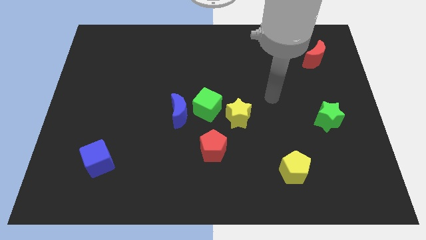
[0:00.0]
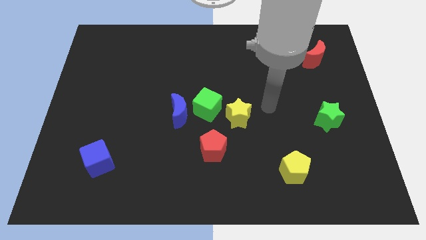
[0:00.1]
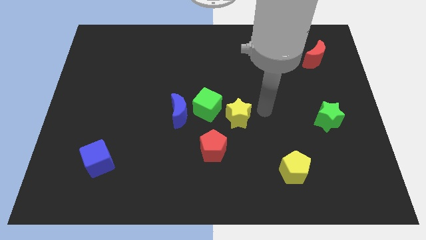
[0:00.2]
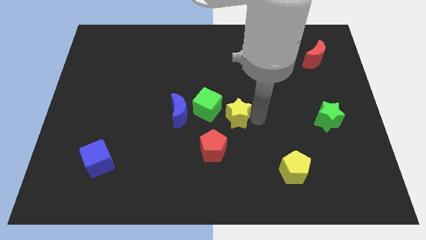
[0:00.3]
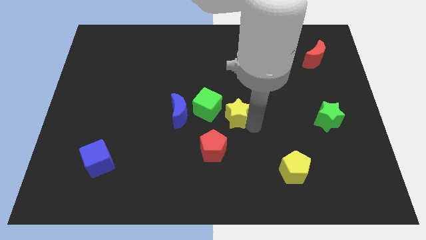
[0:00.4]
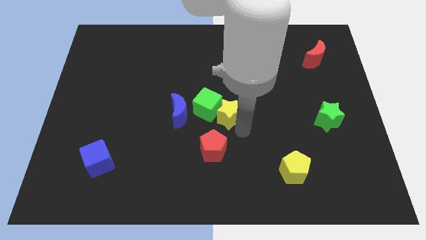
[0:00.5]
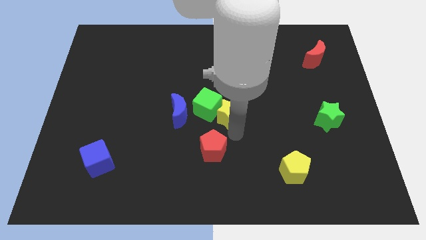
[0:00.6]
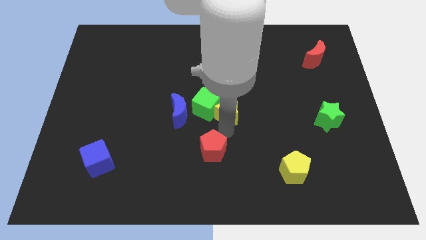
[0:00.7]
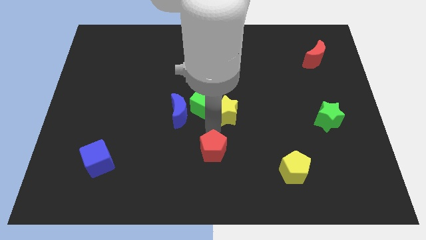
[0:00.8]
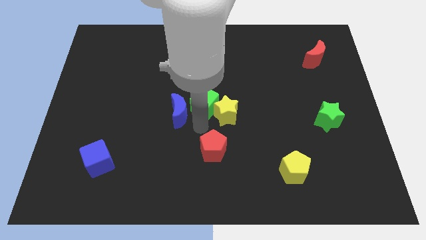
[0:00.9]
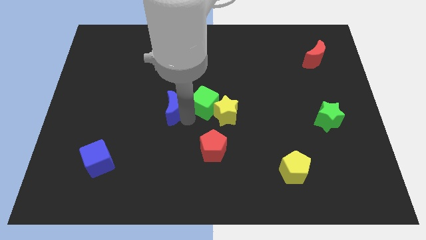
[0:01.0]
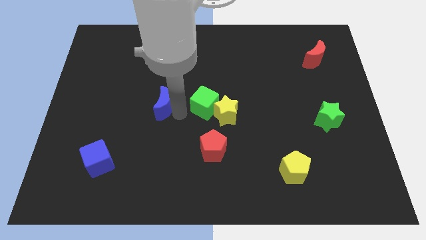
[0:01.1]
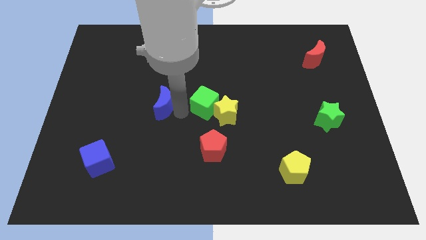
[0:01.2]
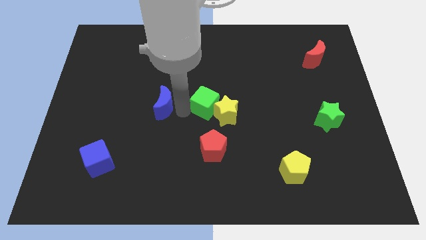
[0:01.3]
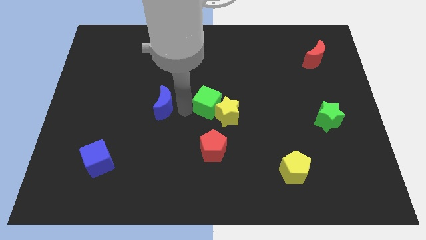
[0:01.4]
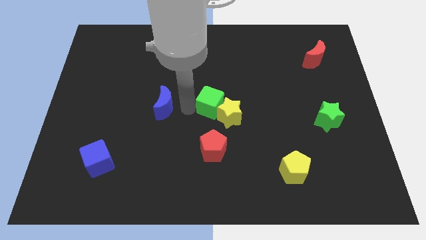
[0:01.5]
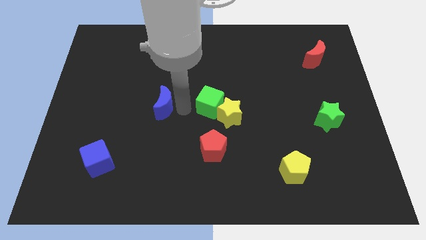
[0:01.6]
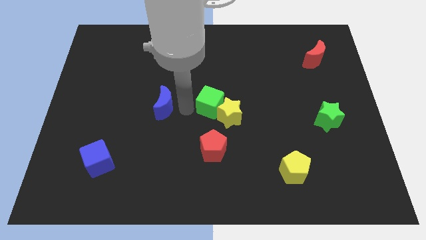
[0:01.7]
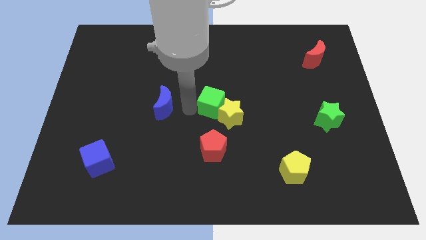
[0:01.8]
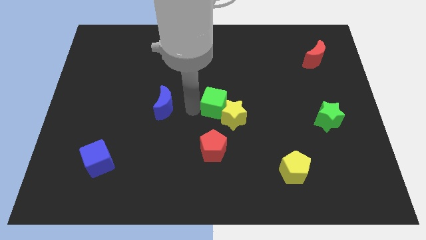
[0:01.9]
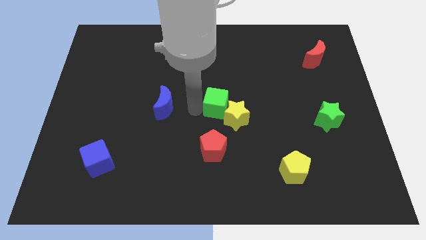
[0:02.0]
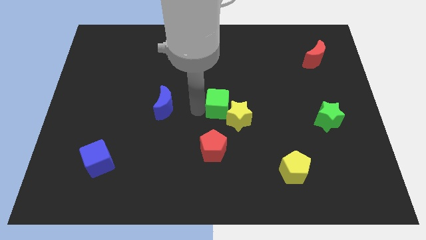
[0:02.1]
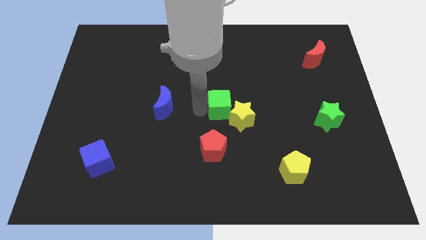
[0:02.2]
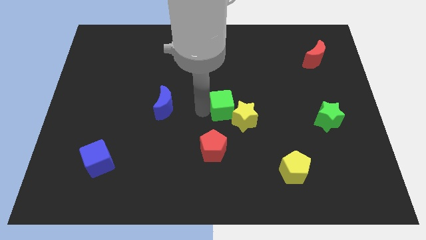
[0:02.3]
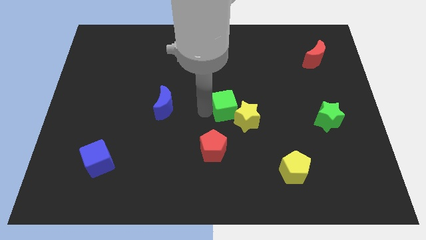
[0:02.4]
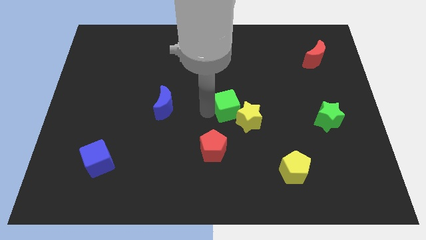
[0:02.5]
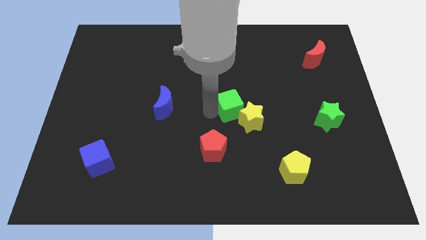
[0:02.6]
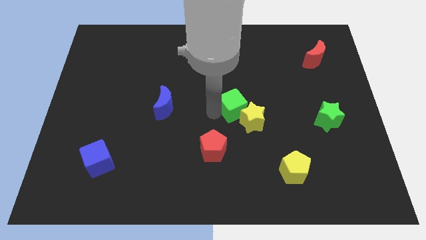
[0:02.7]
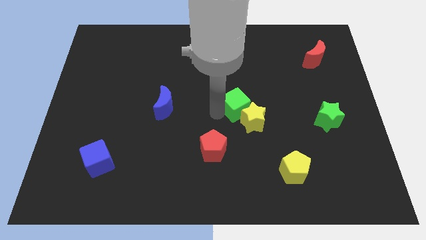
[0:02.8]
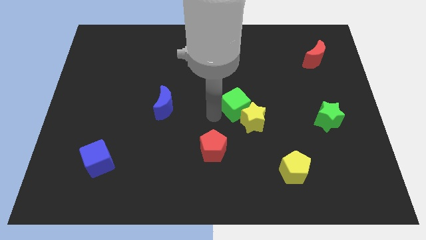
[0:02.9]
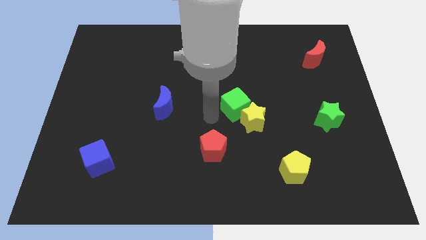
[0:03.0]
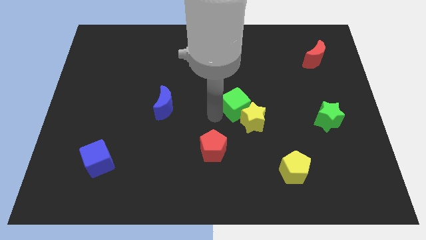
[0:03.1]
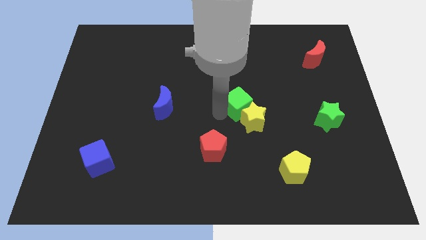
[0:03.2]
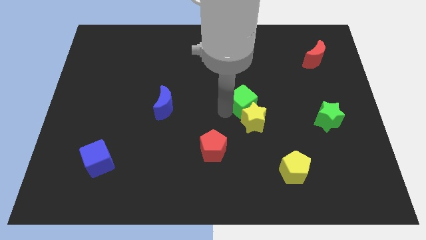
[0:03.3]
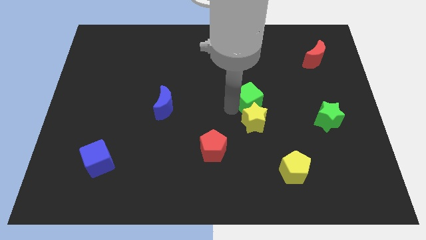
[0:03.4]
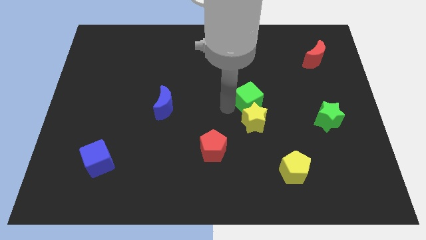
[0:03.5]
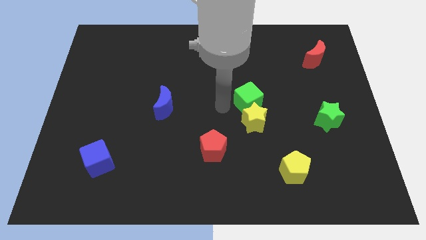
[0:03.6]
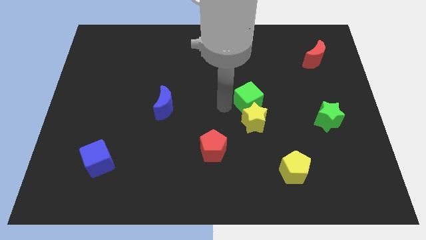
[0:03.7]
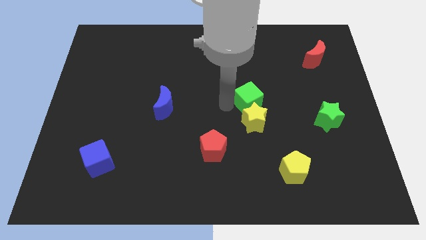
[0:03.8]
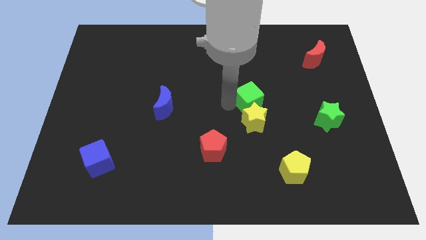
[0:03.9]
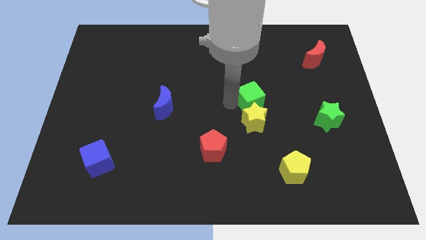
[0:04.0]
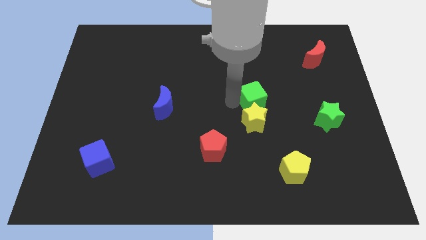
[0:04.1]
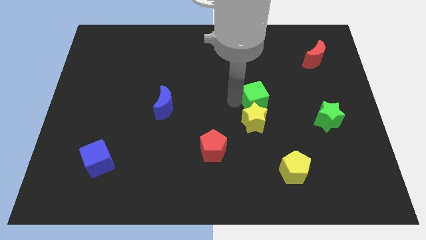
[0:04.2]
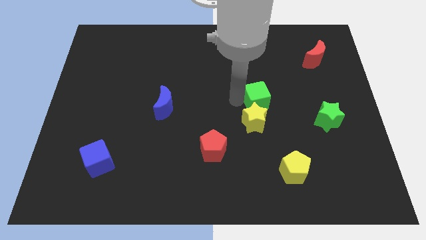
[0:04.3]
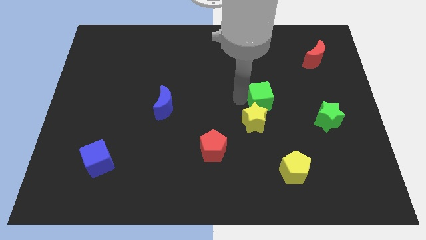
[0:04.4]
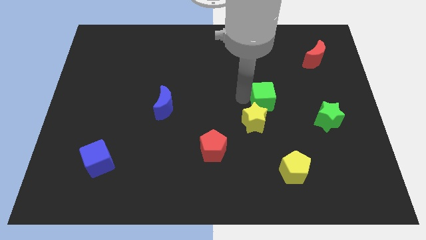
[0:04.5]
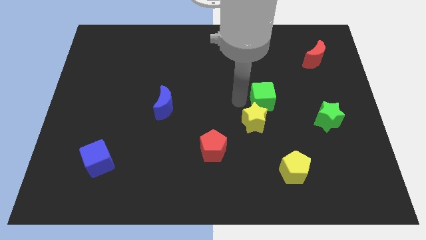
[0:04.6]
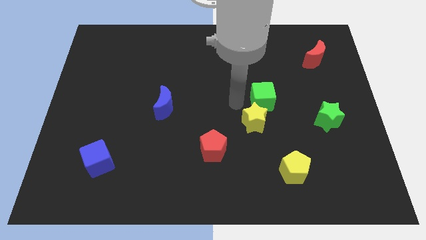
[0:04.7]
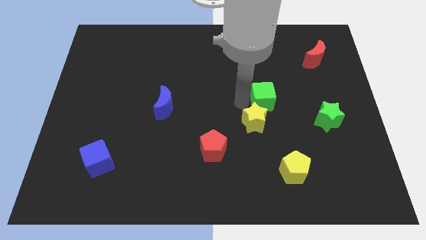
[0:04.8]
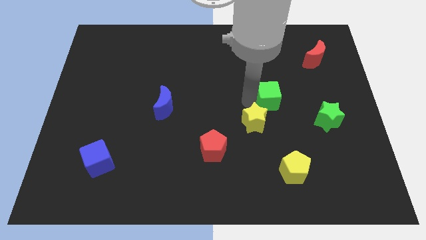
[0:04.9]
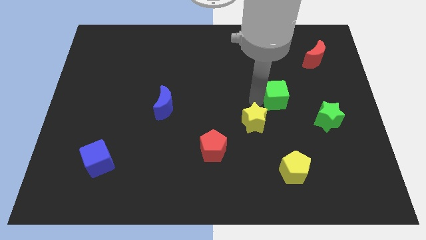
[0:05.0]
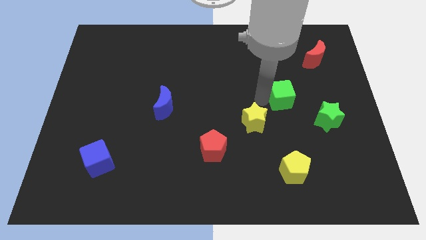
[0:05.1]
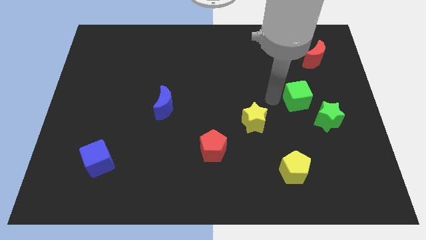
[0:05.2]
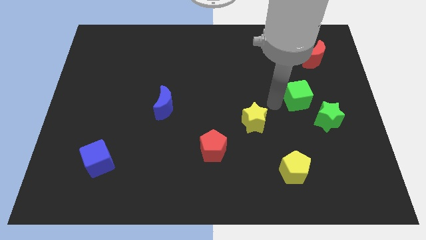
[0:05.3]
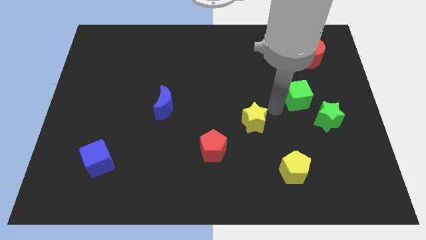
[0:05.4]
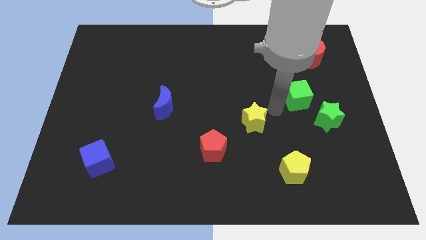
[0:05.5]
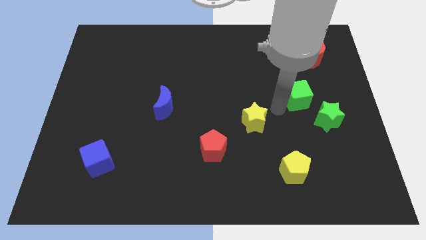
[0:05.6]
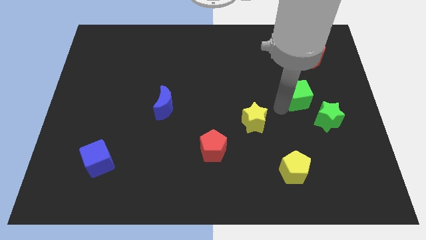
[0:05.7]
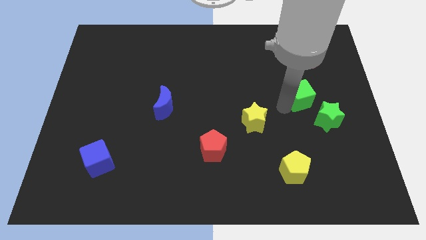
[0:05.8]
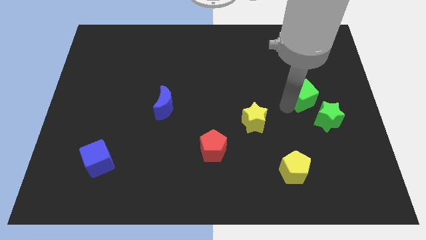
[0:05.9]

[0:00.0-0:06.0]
move the green cube to the top side of the green star

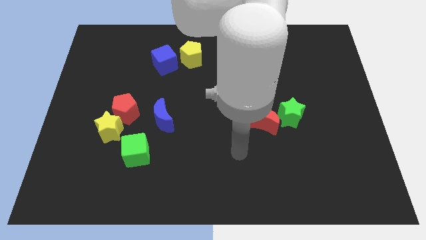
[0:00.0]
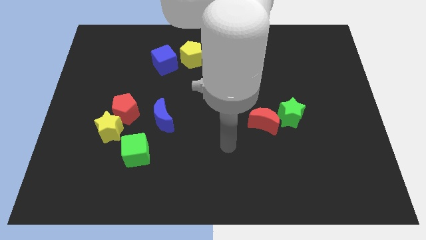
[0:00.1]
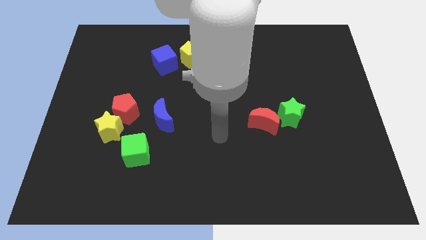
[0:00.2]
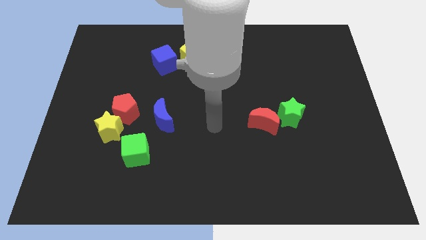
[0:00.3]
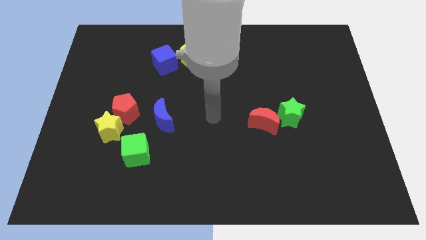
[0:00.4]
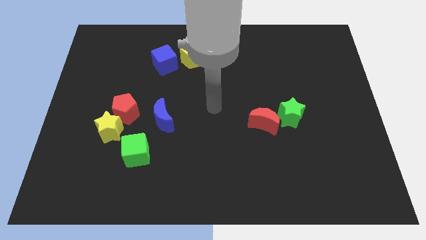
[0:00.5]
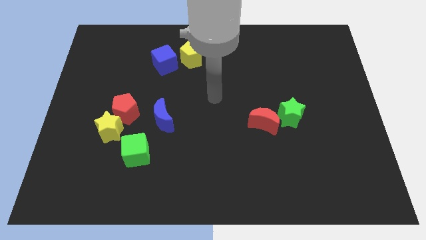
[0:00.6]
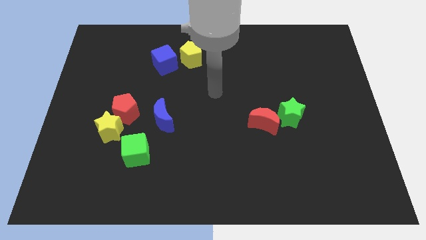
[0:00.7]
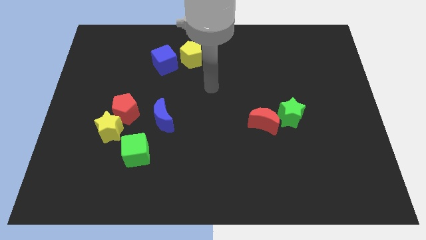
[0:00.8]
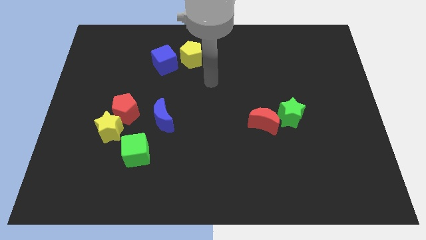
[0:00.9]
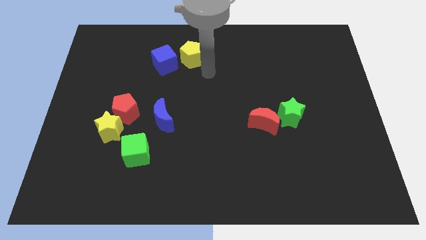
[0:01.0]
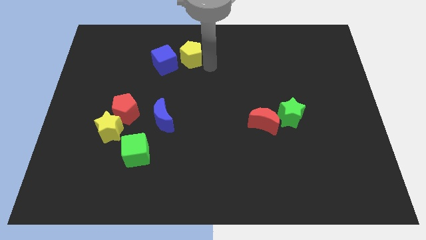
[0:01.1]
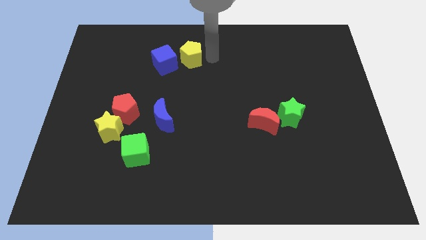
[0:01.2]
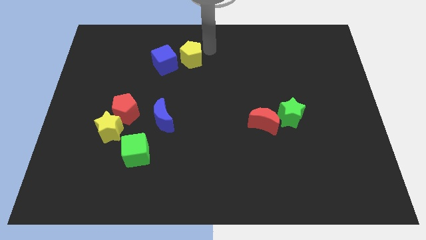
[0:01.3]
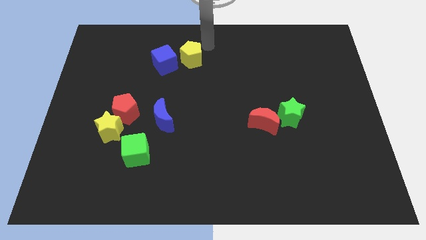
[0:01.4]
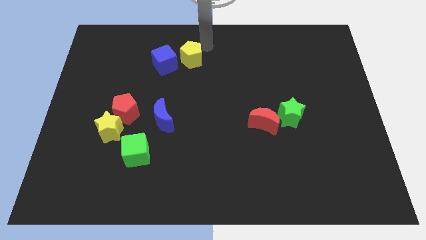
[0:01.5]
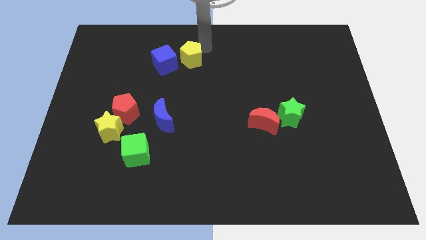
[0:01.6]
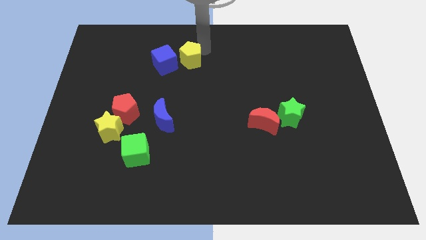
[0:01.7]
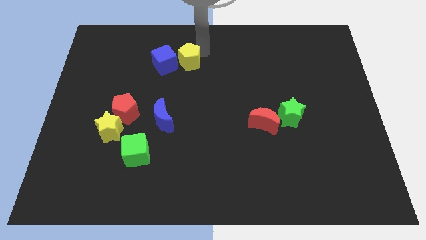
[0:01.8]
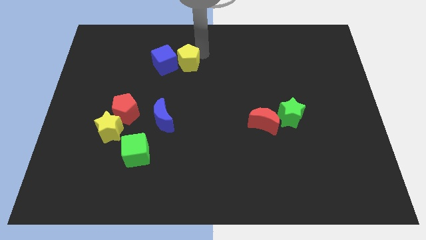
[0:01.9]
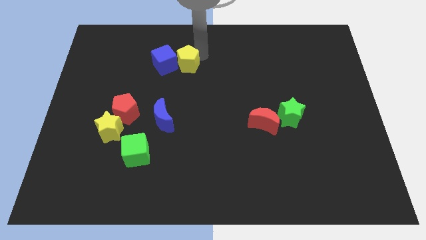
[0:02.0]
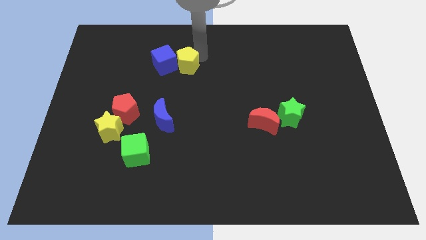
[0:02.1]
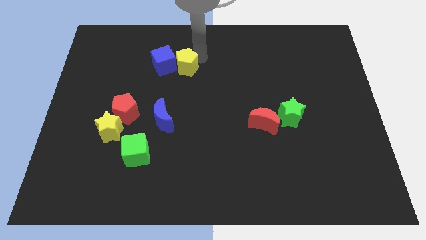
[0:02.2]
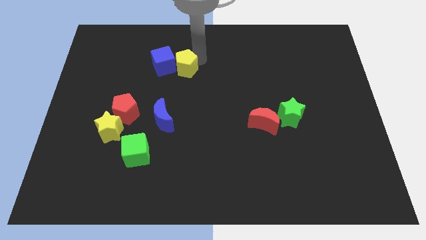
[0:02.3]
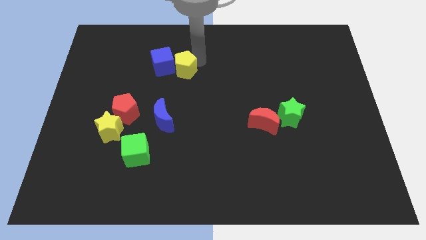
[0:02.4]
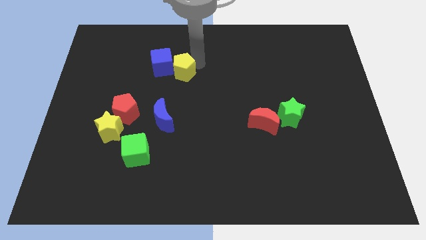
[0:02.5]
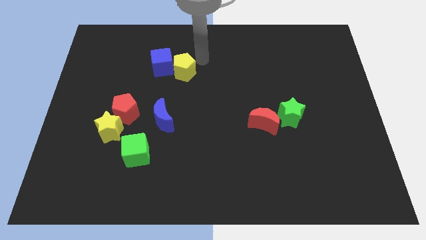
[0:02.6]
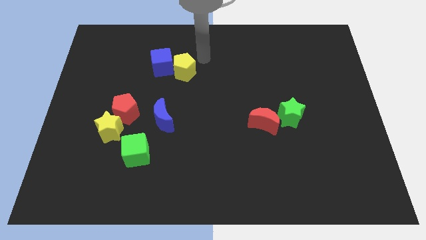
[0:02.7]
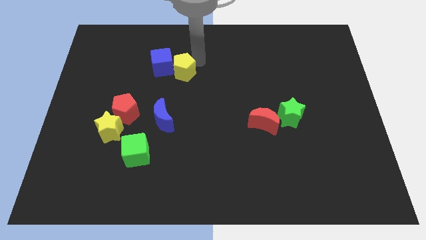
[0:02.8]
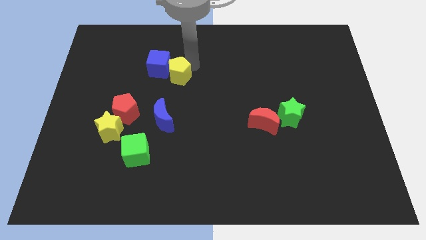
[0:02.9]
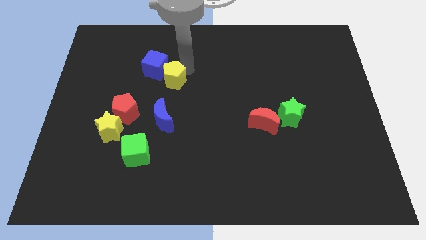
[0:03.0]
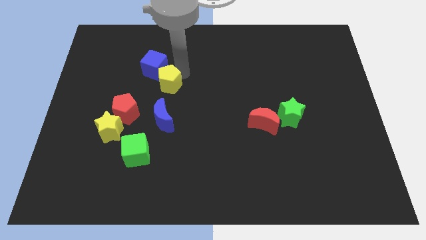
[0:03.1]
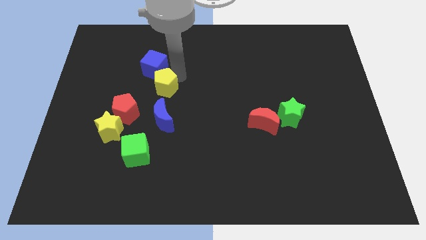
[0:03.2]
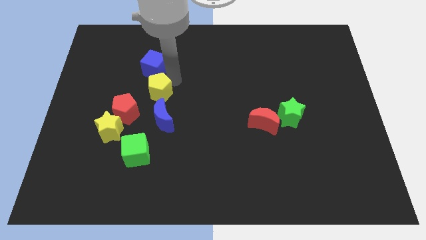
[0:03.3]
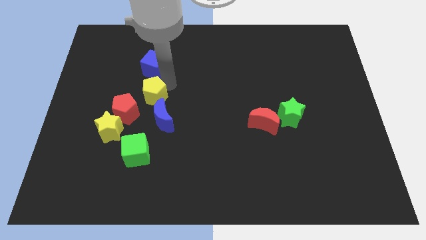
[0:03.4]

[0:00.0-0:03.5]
move the yellow pentagon to the top left side of the blue moon
